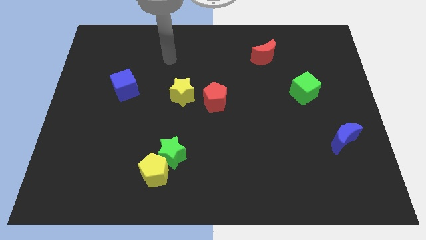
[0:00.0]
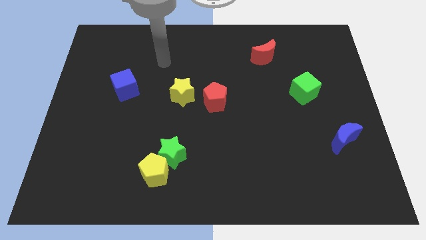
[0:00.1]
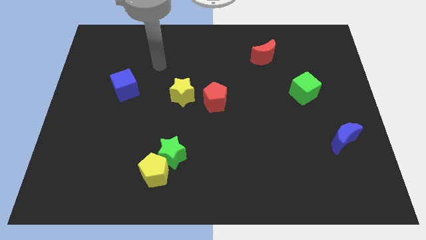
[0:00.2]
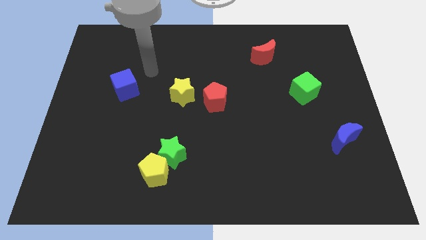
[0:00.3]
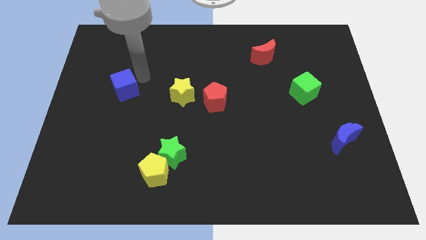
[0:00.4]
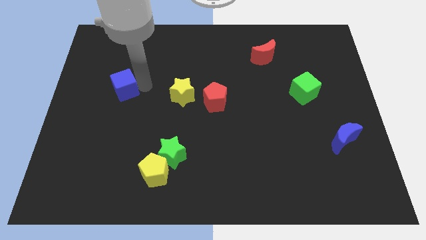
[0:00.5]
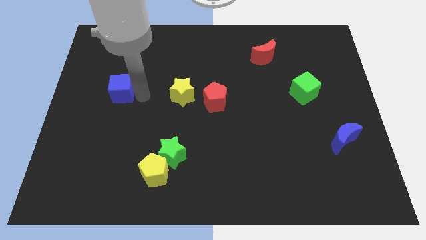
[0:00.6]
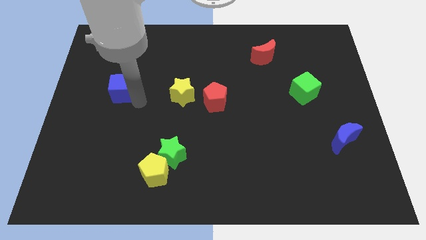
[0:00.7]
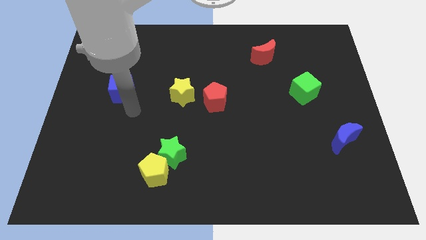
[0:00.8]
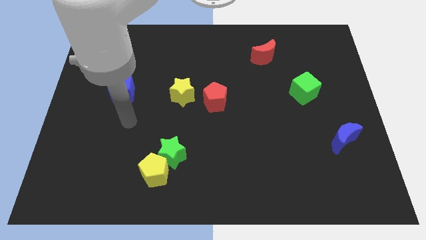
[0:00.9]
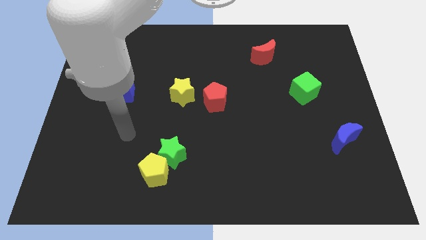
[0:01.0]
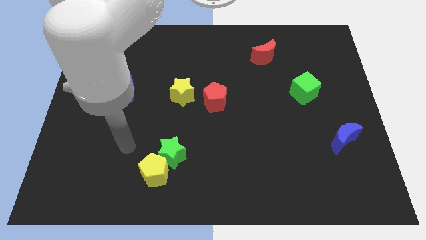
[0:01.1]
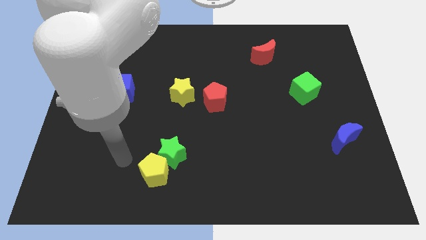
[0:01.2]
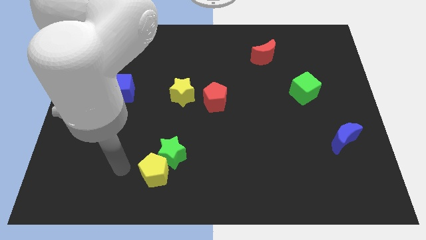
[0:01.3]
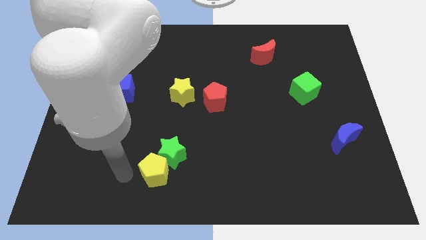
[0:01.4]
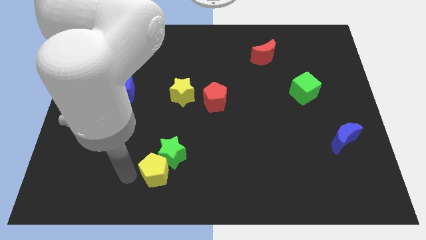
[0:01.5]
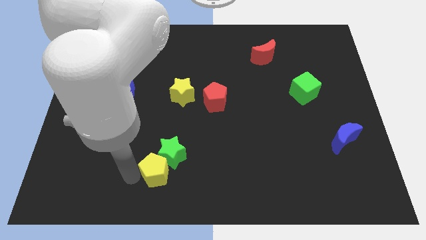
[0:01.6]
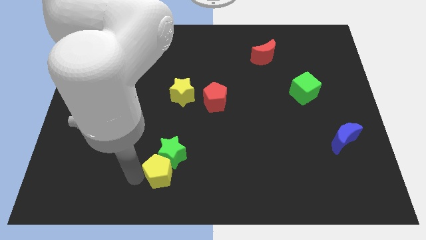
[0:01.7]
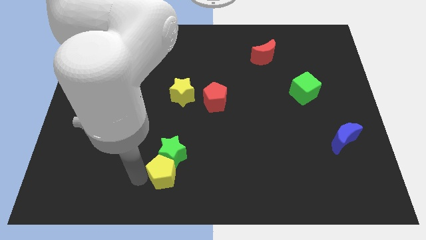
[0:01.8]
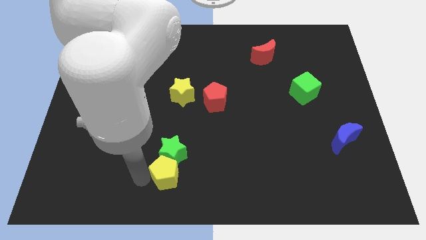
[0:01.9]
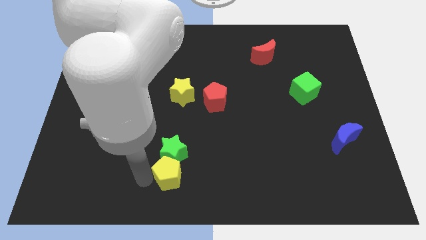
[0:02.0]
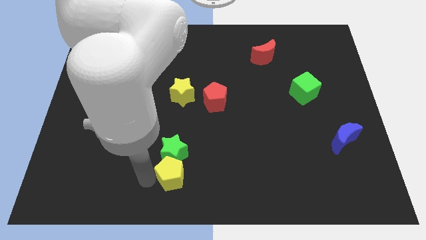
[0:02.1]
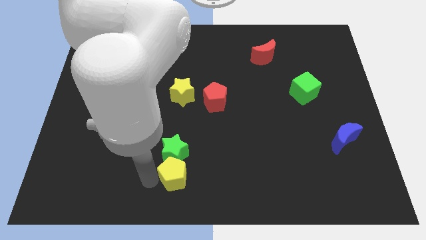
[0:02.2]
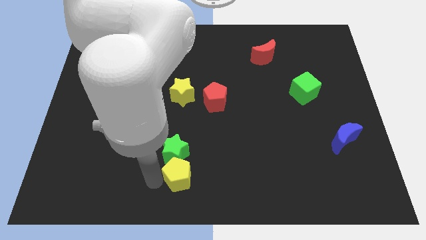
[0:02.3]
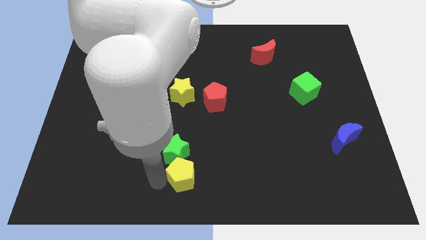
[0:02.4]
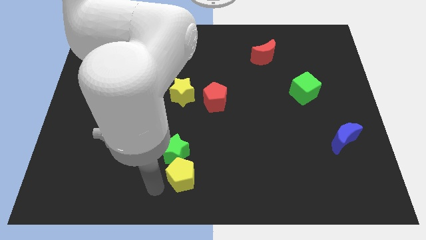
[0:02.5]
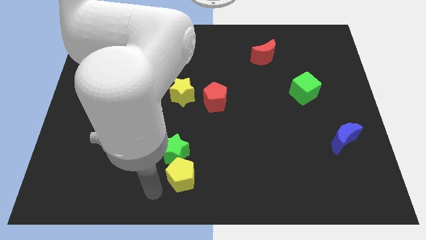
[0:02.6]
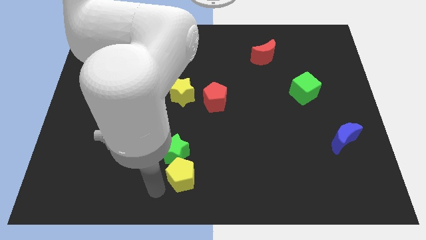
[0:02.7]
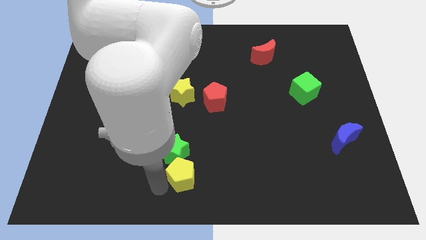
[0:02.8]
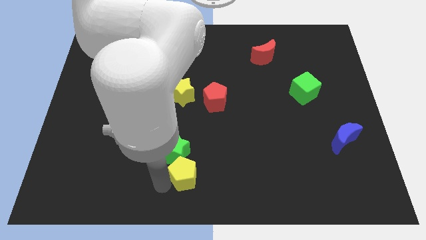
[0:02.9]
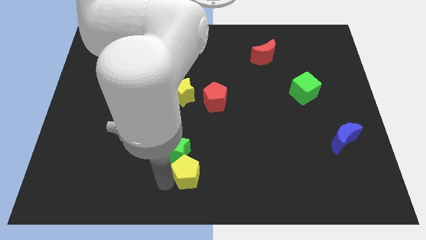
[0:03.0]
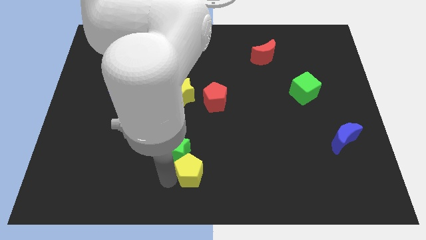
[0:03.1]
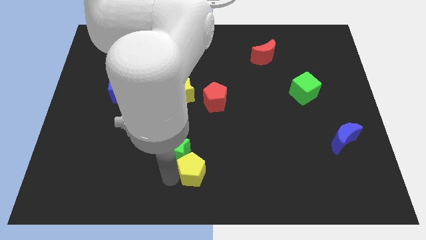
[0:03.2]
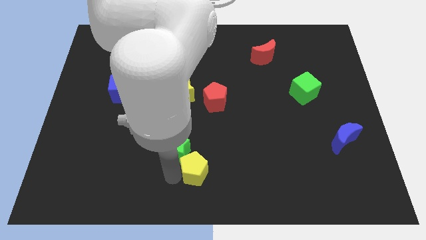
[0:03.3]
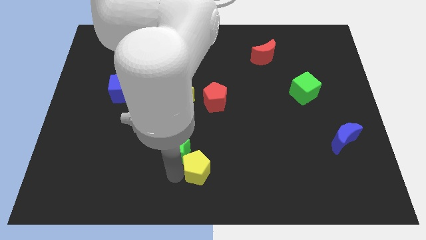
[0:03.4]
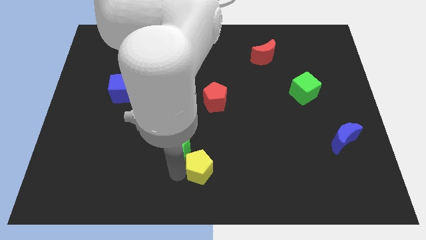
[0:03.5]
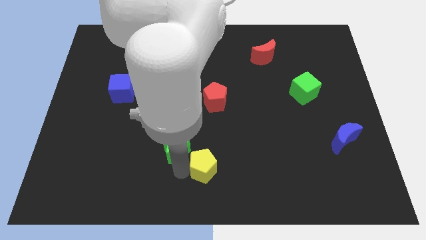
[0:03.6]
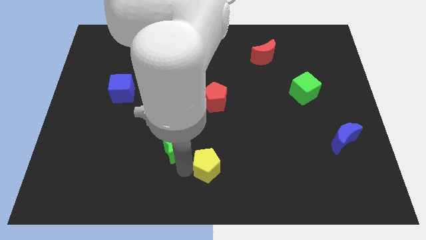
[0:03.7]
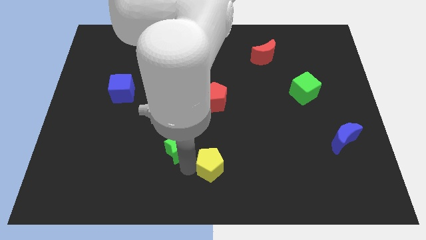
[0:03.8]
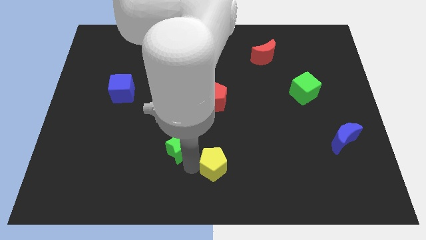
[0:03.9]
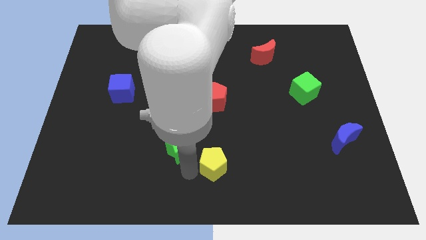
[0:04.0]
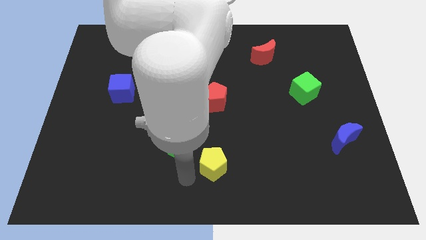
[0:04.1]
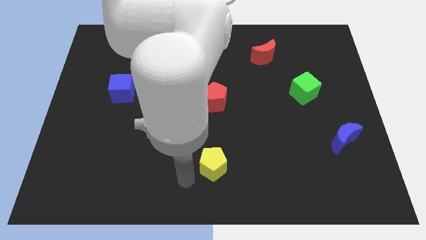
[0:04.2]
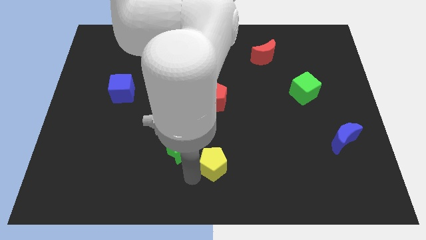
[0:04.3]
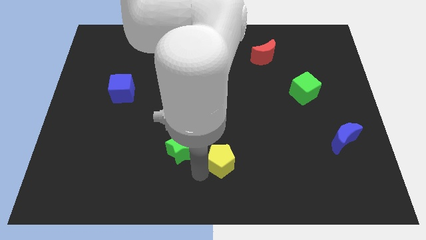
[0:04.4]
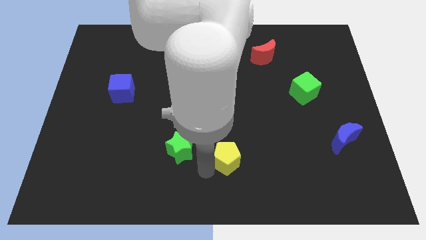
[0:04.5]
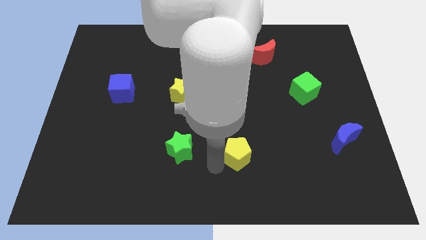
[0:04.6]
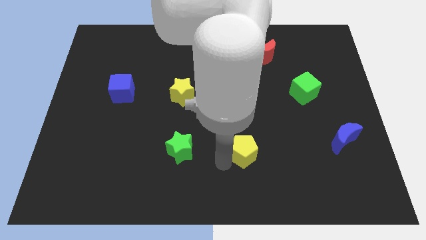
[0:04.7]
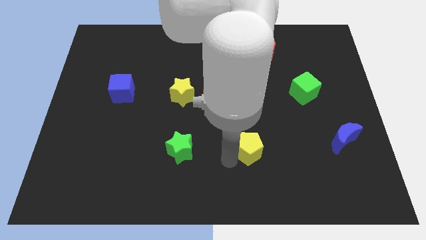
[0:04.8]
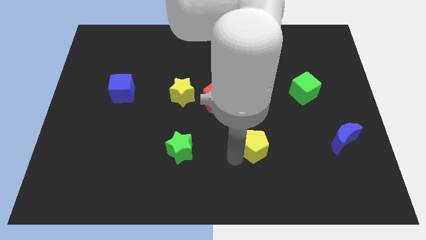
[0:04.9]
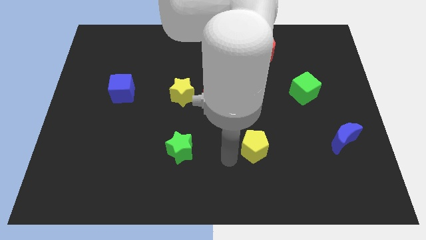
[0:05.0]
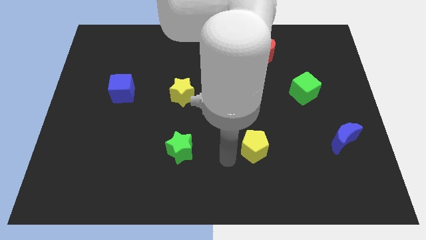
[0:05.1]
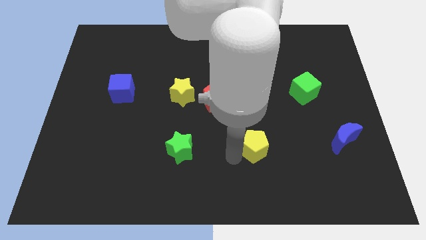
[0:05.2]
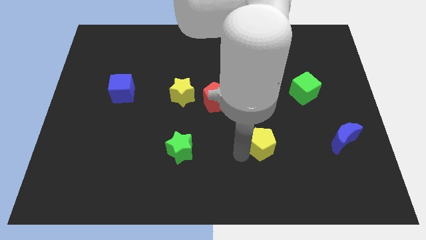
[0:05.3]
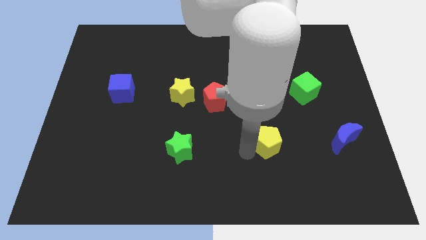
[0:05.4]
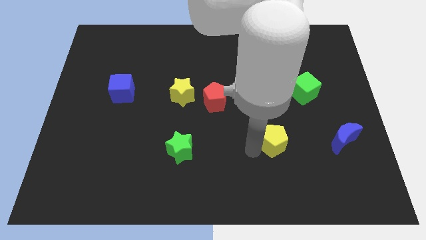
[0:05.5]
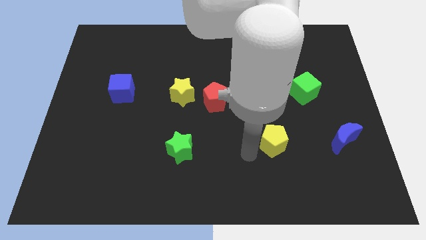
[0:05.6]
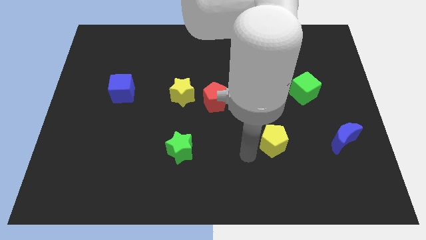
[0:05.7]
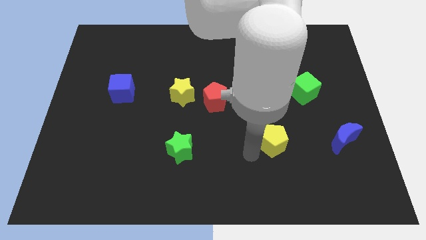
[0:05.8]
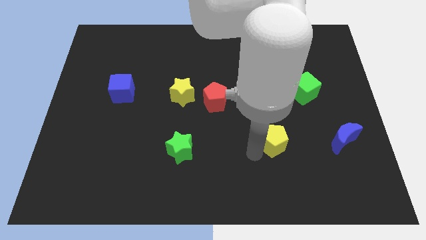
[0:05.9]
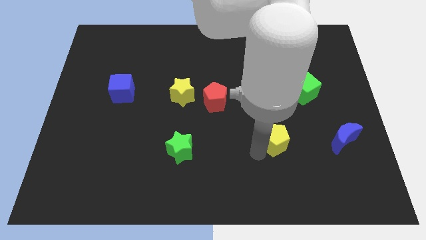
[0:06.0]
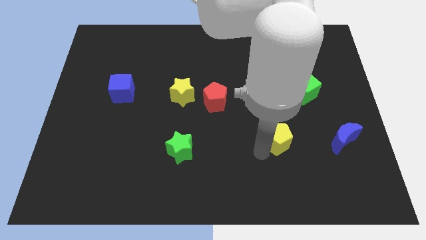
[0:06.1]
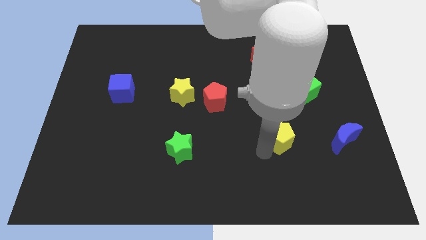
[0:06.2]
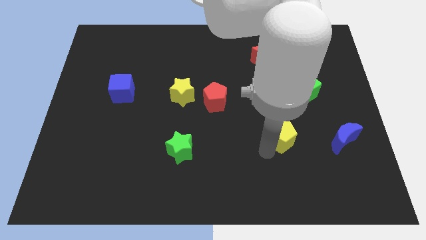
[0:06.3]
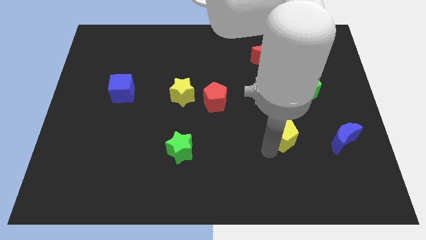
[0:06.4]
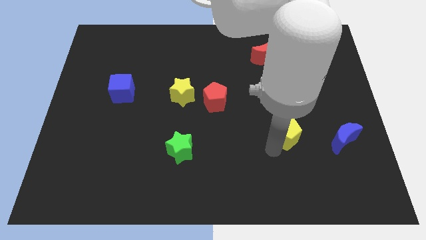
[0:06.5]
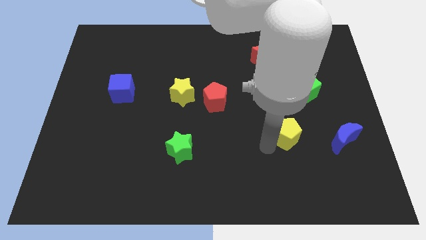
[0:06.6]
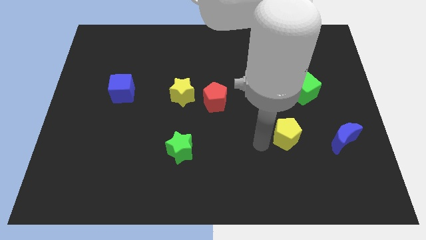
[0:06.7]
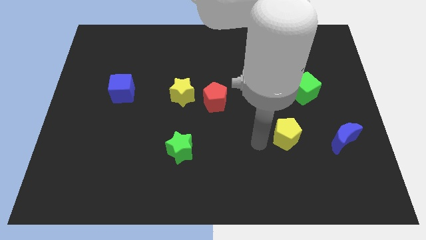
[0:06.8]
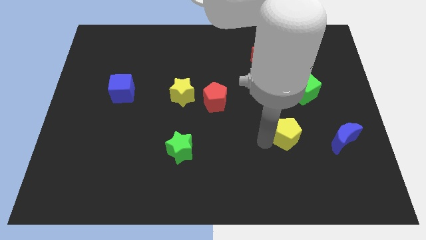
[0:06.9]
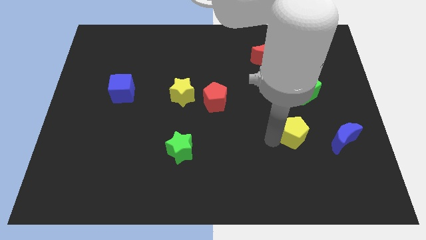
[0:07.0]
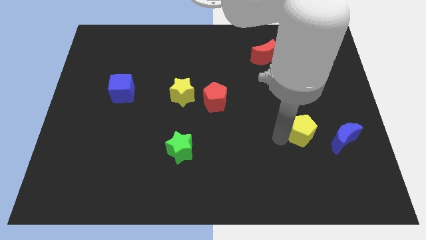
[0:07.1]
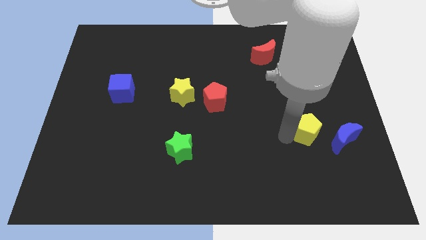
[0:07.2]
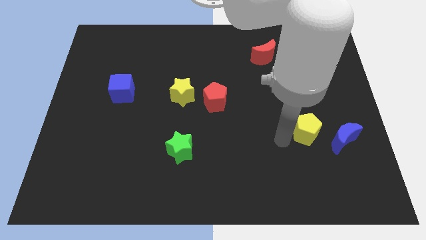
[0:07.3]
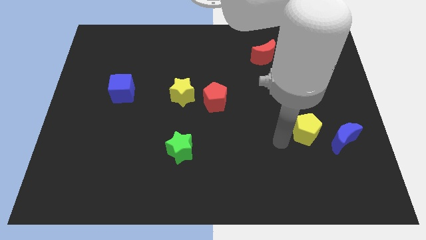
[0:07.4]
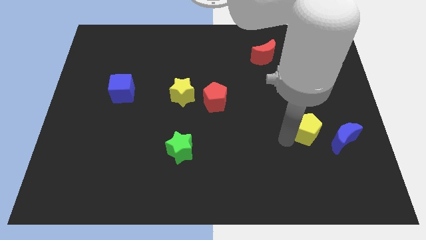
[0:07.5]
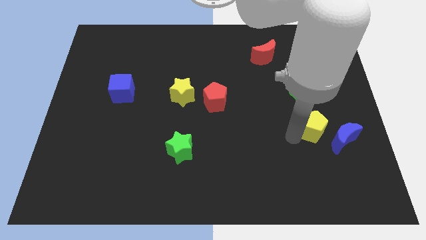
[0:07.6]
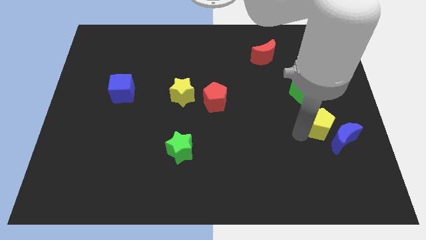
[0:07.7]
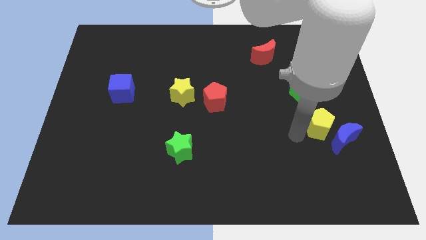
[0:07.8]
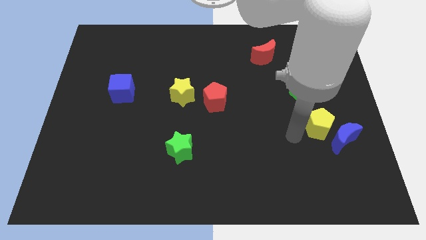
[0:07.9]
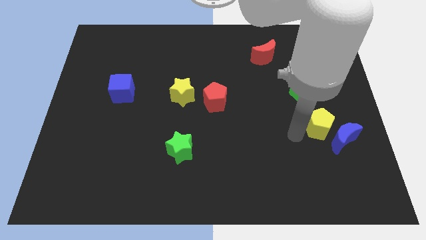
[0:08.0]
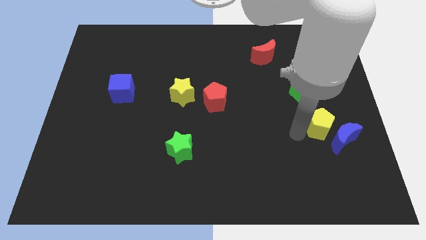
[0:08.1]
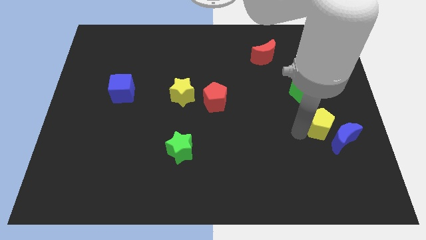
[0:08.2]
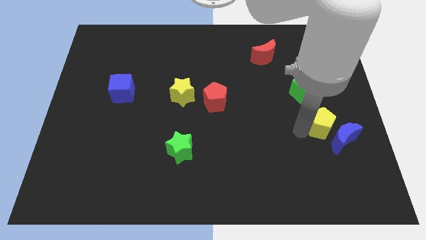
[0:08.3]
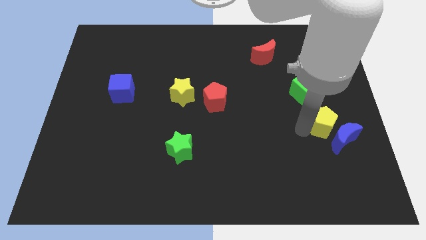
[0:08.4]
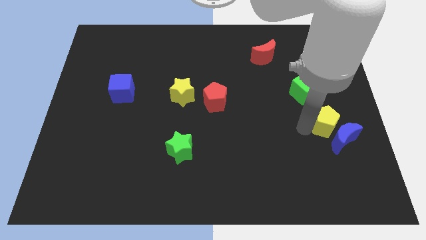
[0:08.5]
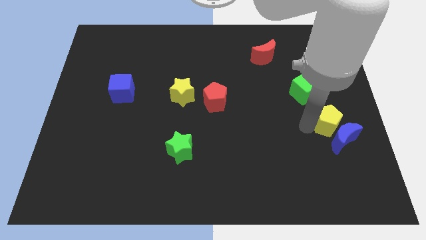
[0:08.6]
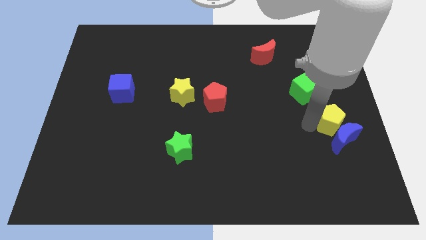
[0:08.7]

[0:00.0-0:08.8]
slide the yellow pentagon to the right side of the board
